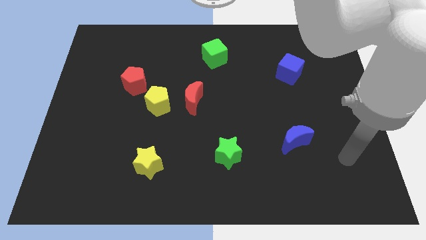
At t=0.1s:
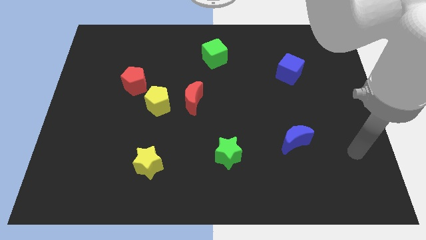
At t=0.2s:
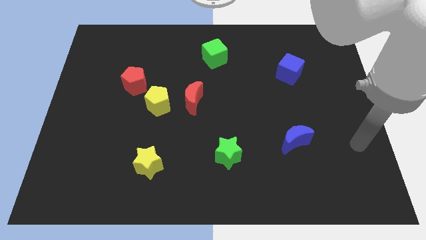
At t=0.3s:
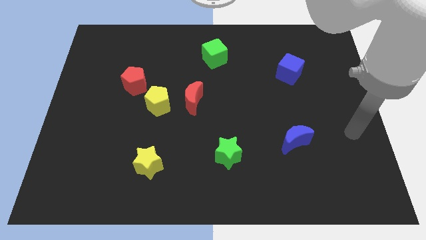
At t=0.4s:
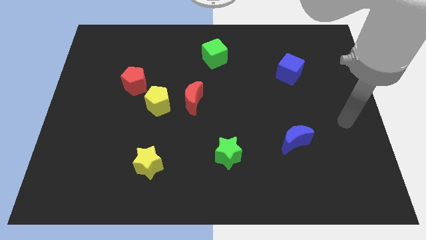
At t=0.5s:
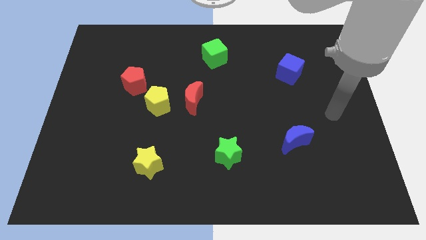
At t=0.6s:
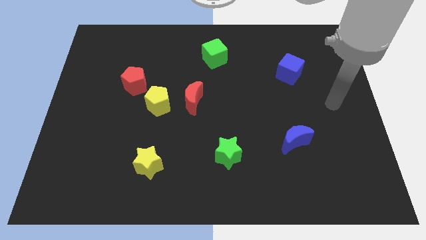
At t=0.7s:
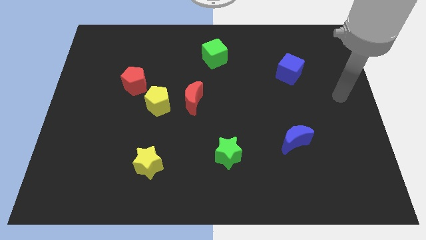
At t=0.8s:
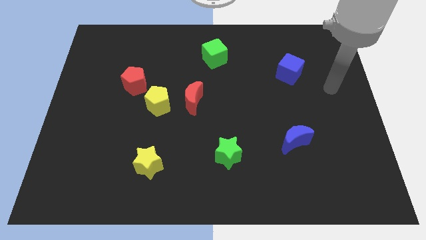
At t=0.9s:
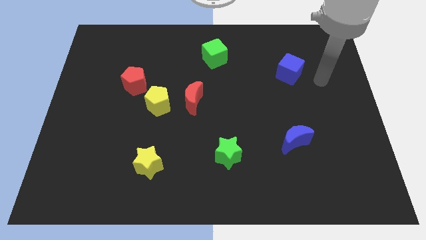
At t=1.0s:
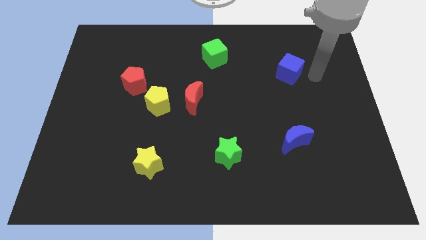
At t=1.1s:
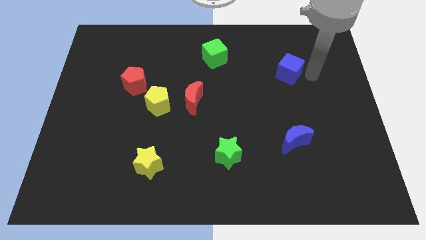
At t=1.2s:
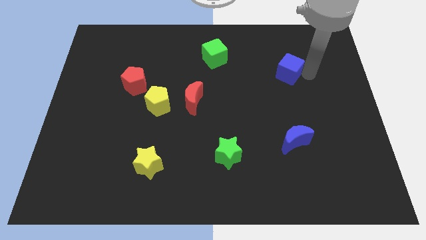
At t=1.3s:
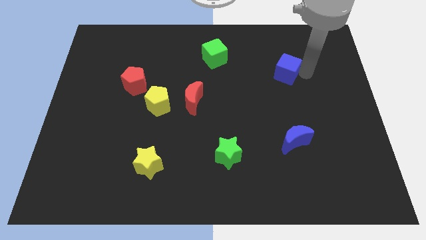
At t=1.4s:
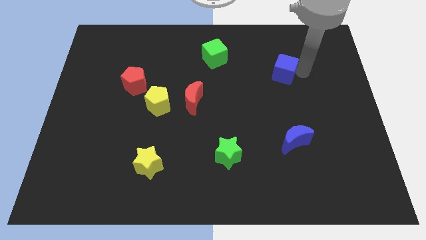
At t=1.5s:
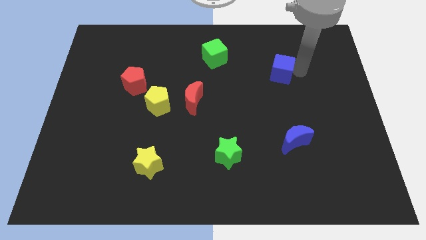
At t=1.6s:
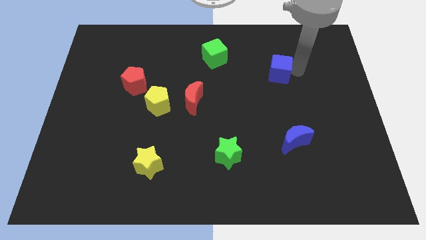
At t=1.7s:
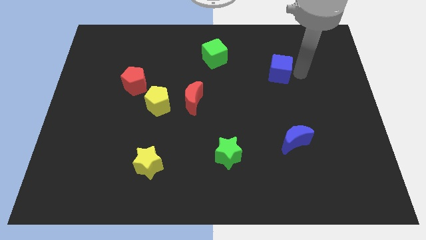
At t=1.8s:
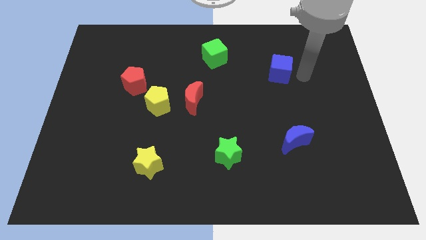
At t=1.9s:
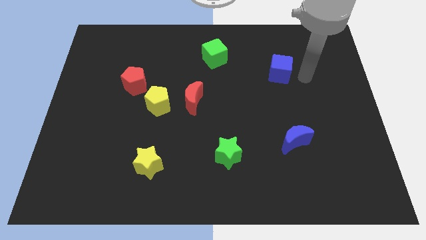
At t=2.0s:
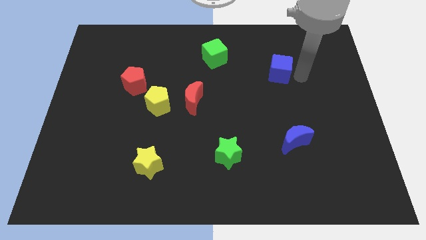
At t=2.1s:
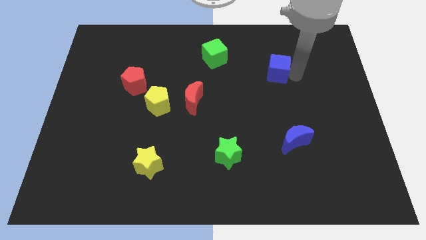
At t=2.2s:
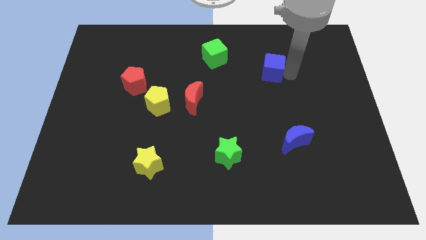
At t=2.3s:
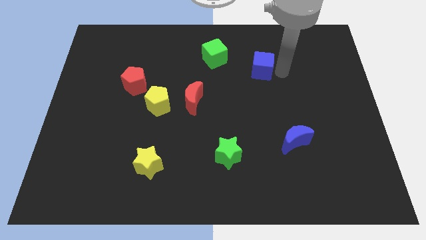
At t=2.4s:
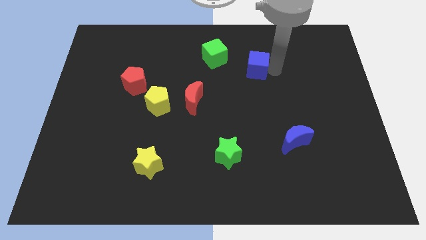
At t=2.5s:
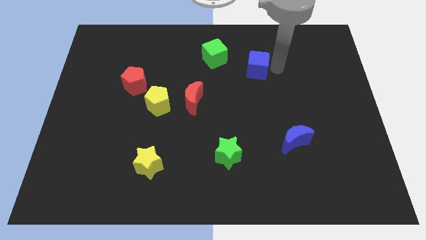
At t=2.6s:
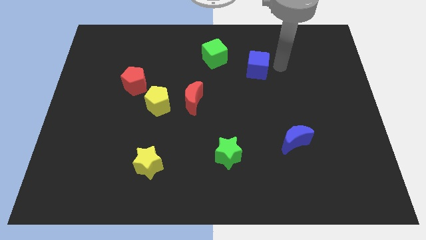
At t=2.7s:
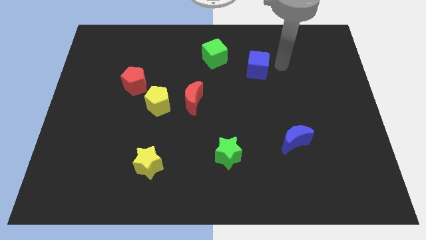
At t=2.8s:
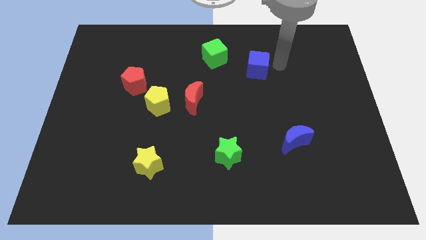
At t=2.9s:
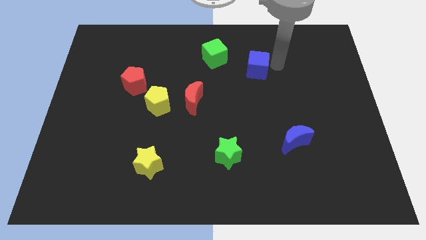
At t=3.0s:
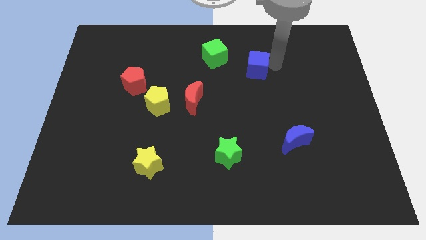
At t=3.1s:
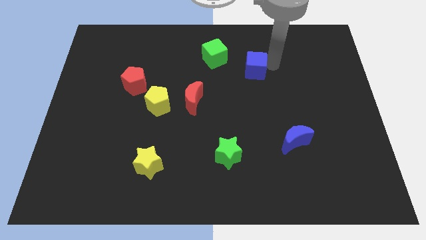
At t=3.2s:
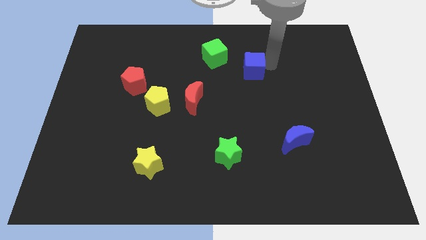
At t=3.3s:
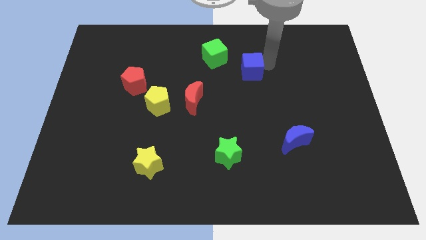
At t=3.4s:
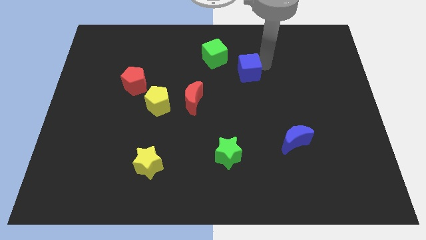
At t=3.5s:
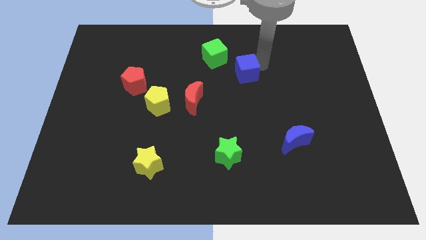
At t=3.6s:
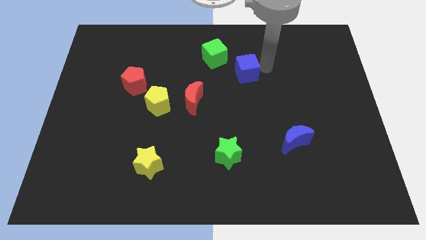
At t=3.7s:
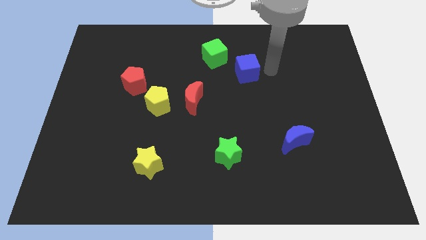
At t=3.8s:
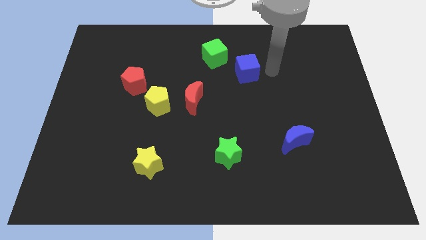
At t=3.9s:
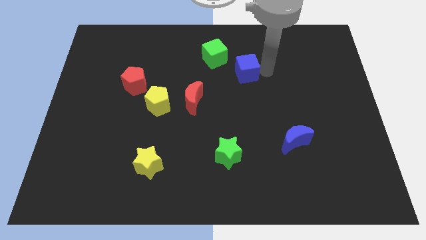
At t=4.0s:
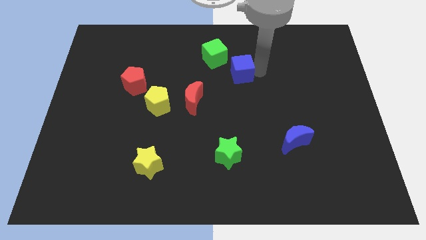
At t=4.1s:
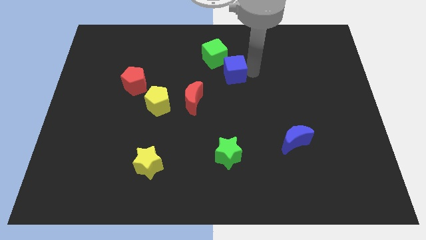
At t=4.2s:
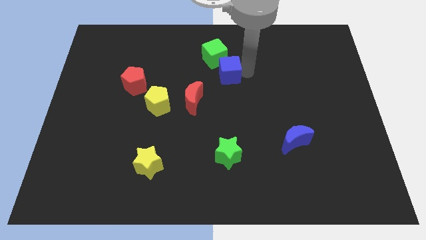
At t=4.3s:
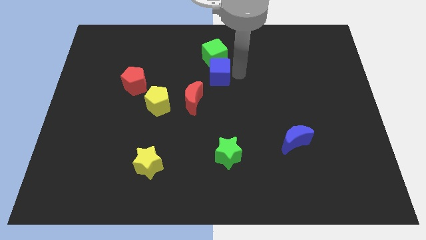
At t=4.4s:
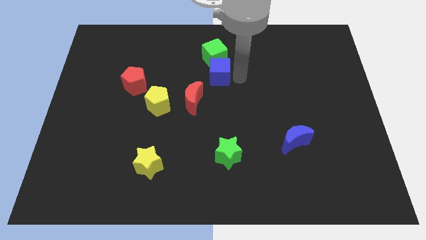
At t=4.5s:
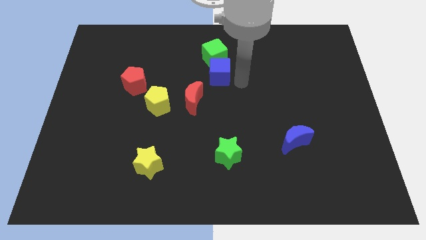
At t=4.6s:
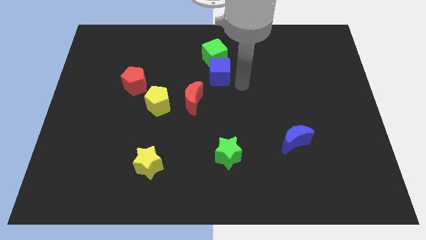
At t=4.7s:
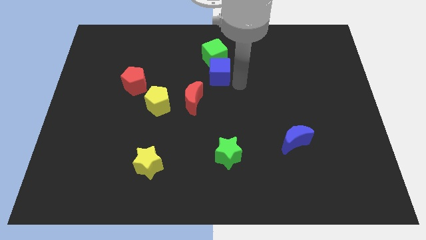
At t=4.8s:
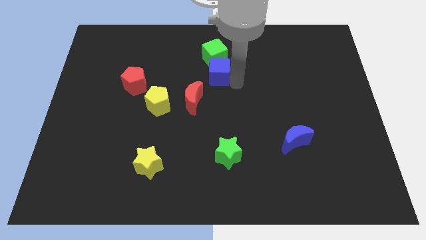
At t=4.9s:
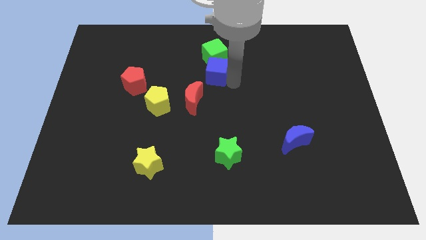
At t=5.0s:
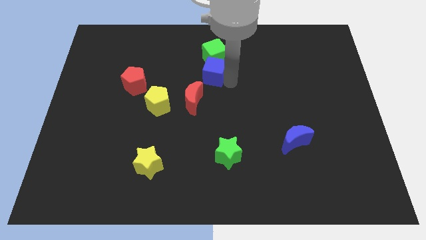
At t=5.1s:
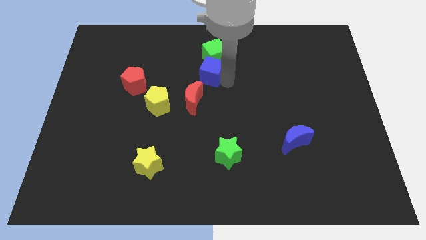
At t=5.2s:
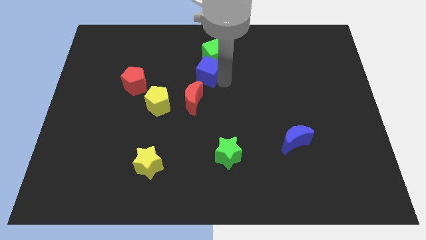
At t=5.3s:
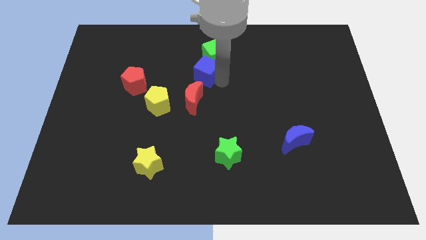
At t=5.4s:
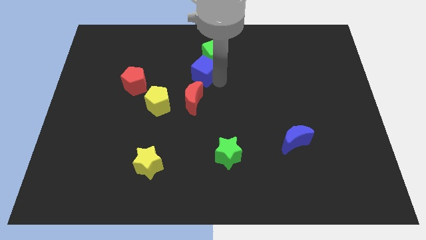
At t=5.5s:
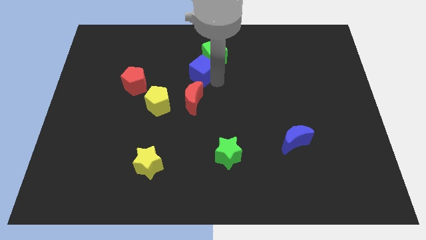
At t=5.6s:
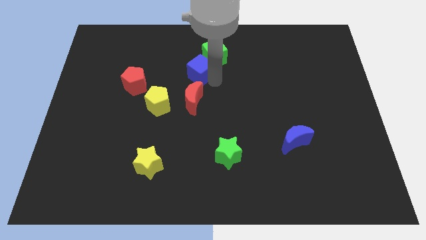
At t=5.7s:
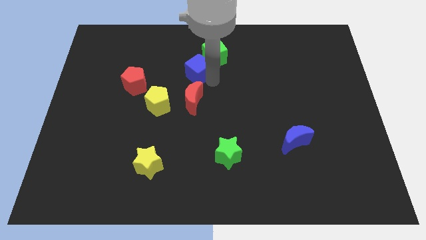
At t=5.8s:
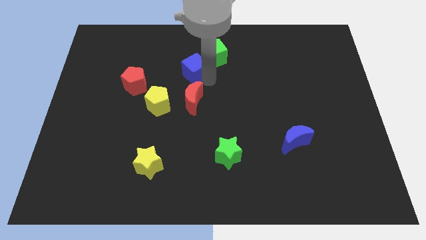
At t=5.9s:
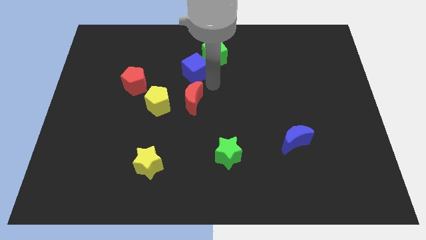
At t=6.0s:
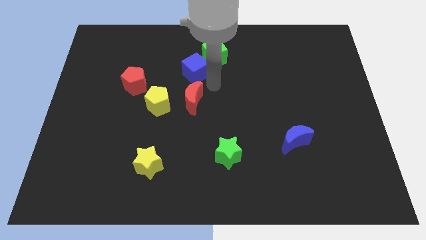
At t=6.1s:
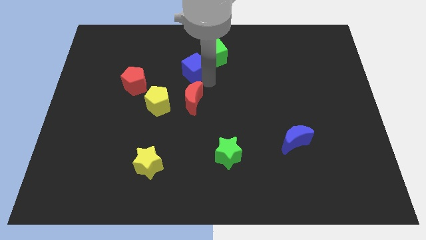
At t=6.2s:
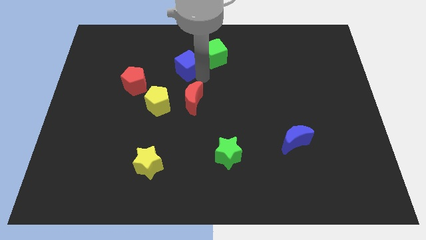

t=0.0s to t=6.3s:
slide the blue cube just left of the green cube
